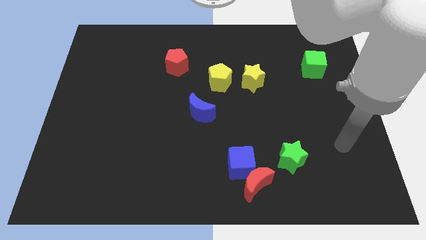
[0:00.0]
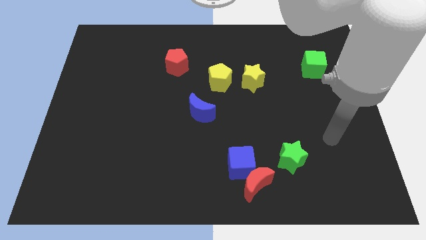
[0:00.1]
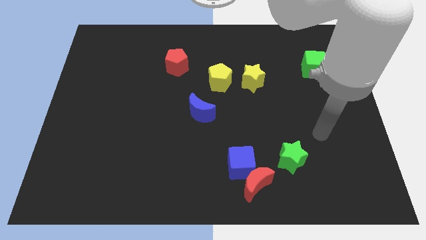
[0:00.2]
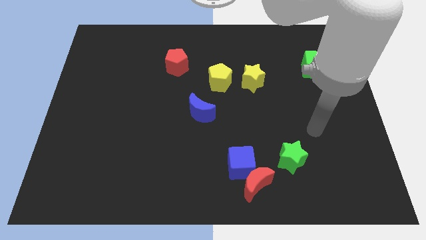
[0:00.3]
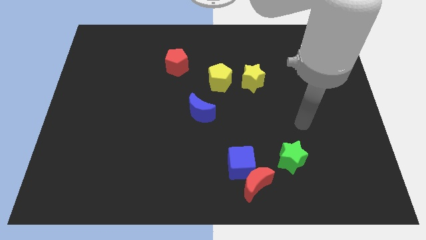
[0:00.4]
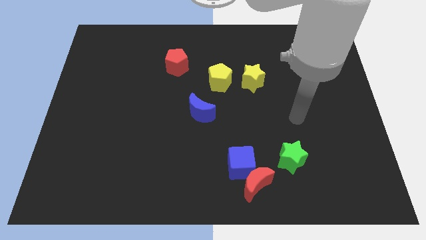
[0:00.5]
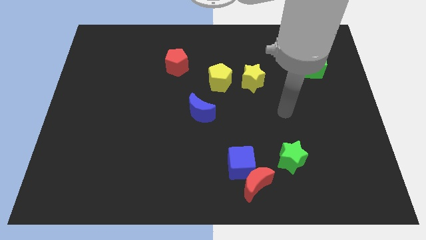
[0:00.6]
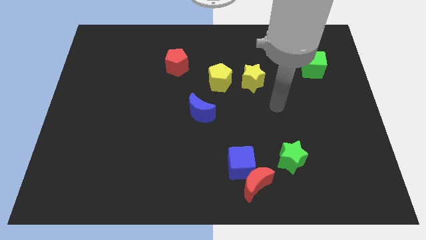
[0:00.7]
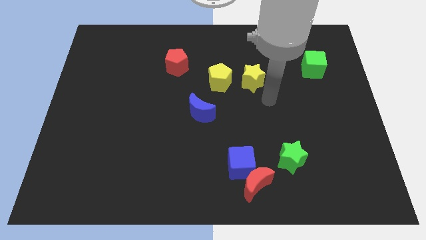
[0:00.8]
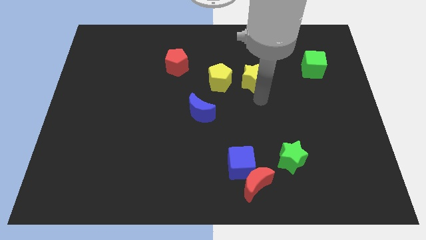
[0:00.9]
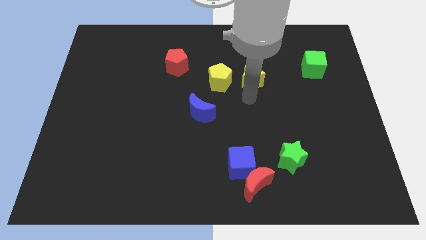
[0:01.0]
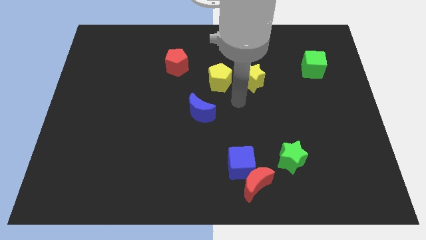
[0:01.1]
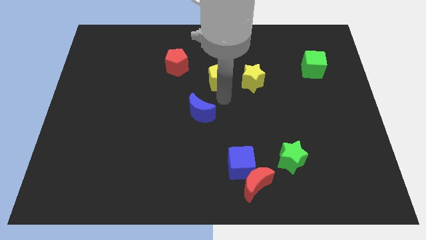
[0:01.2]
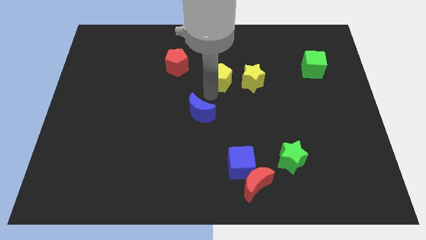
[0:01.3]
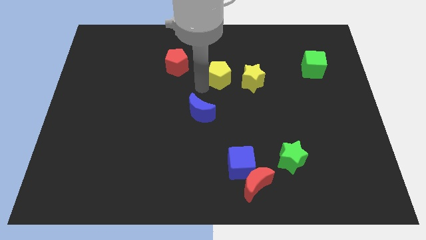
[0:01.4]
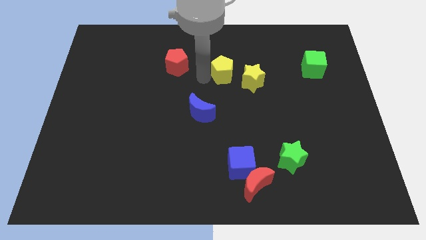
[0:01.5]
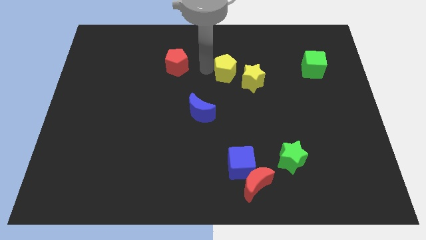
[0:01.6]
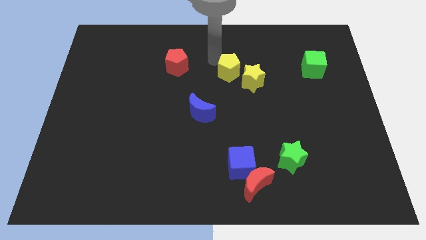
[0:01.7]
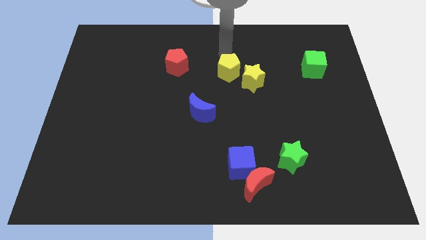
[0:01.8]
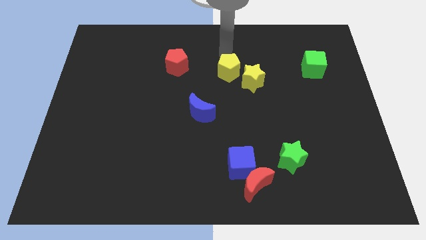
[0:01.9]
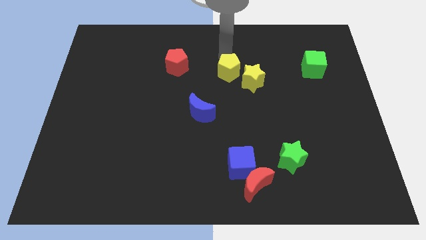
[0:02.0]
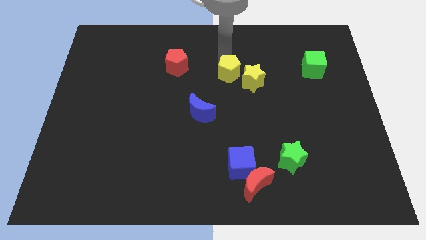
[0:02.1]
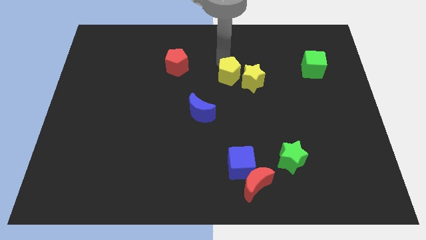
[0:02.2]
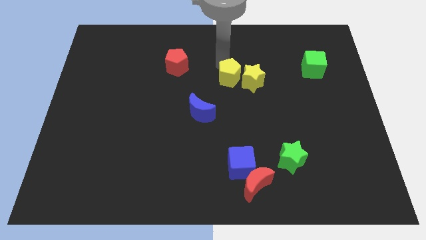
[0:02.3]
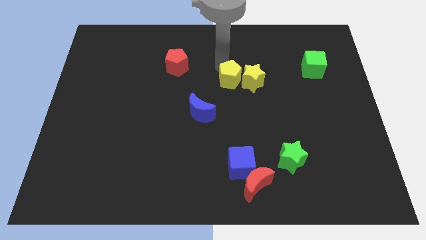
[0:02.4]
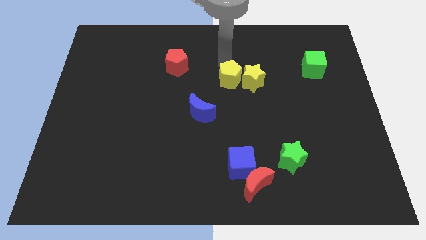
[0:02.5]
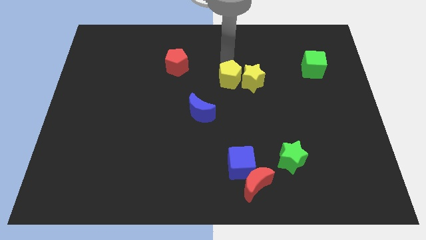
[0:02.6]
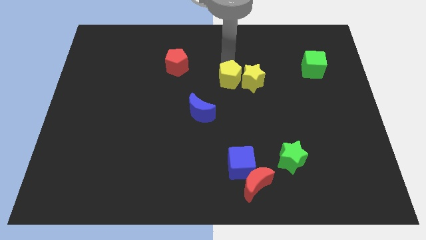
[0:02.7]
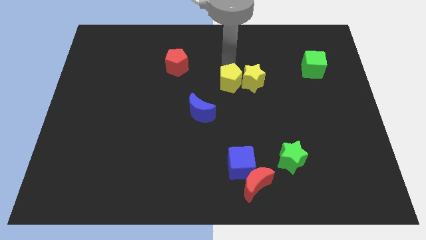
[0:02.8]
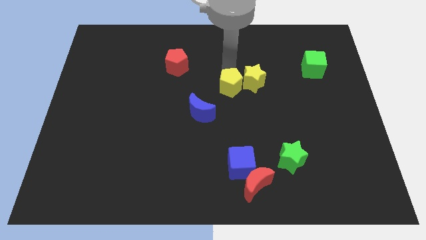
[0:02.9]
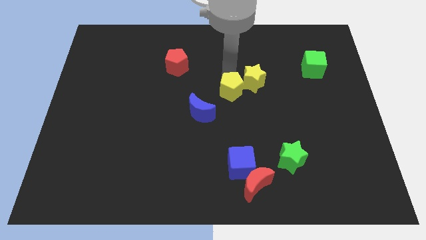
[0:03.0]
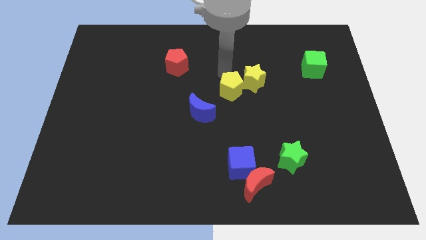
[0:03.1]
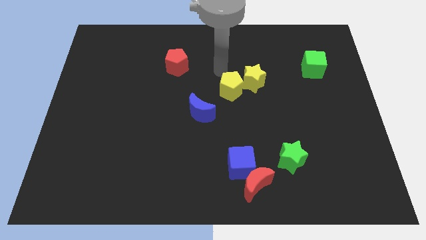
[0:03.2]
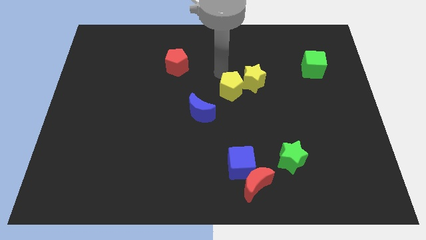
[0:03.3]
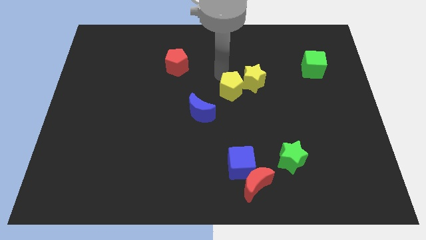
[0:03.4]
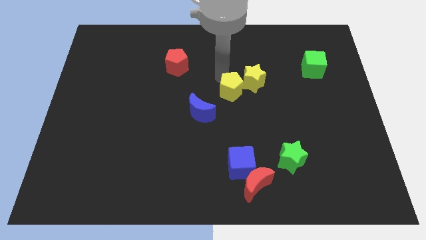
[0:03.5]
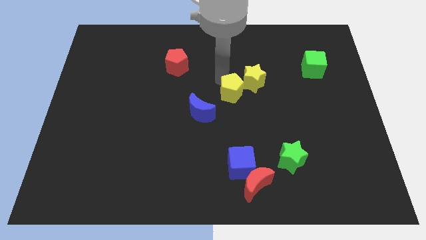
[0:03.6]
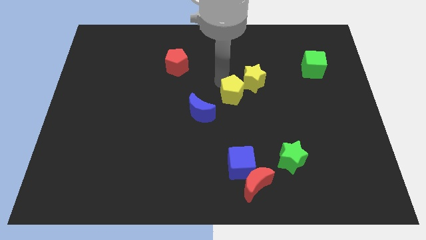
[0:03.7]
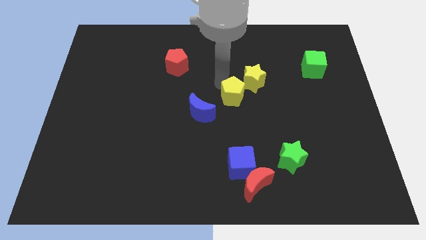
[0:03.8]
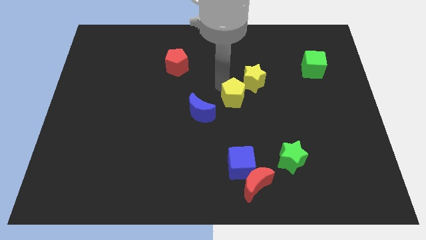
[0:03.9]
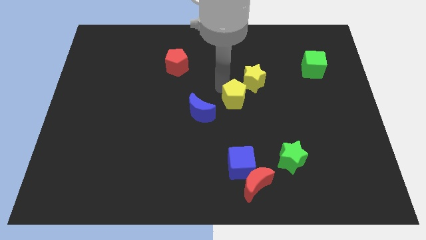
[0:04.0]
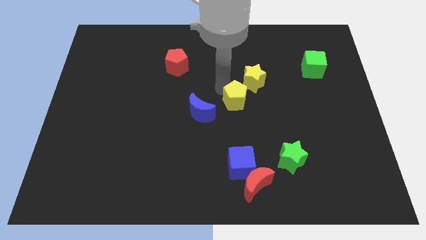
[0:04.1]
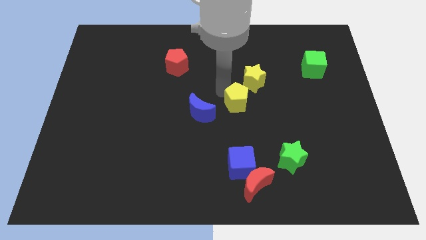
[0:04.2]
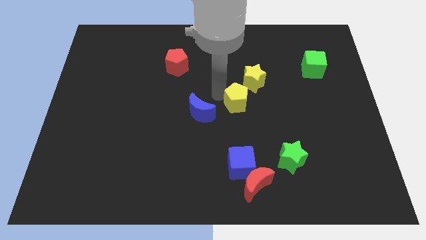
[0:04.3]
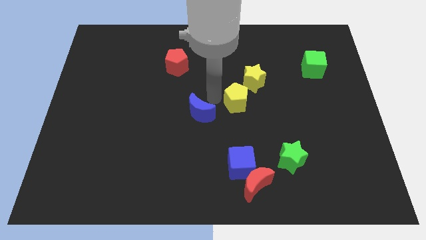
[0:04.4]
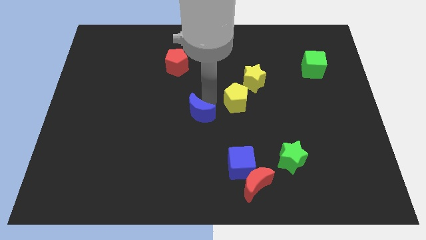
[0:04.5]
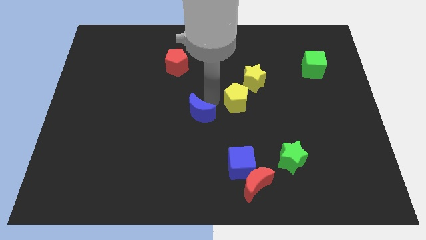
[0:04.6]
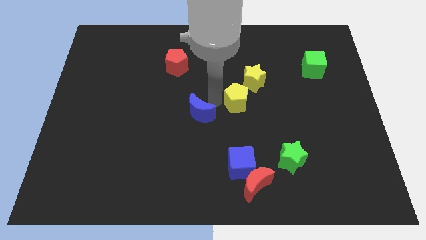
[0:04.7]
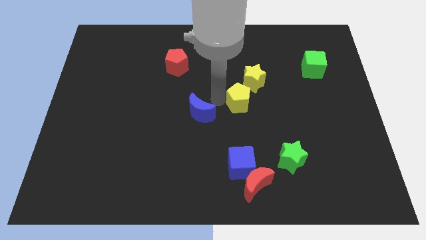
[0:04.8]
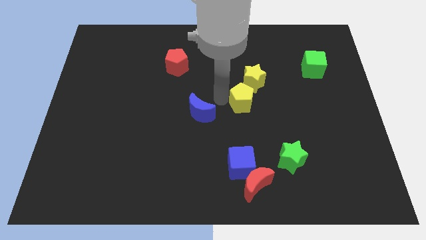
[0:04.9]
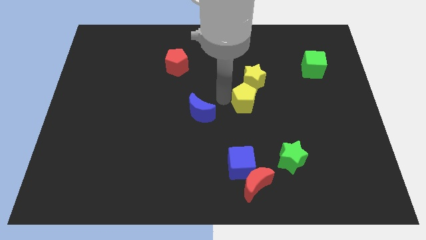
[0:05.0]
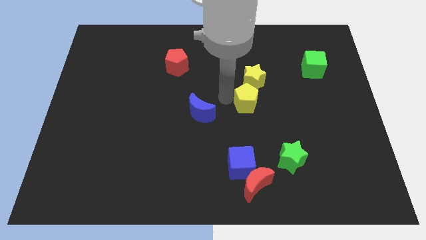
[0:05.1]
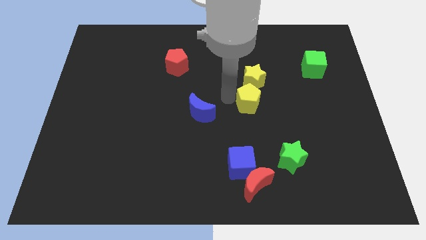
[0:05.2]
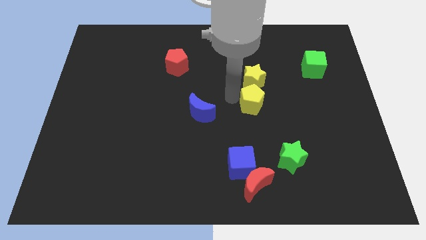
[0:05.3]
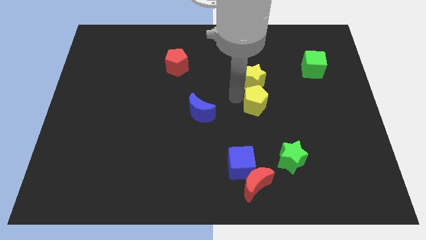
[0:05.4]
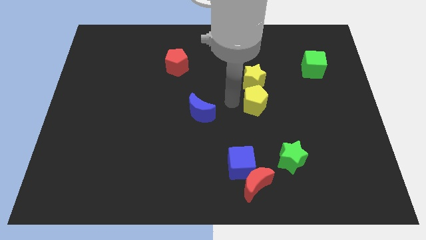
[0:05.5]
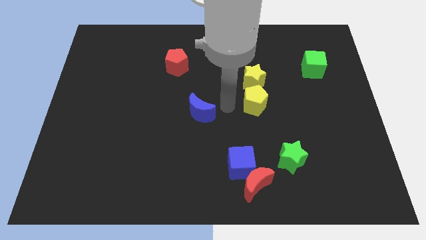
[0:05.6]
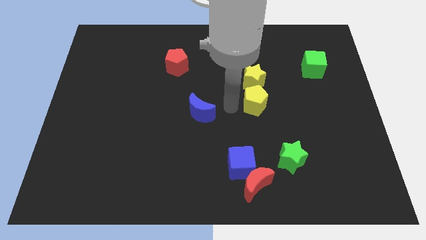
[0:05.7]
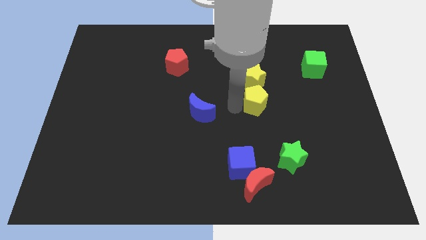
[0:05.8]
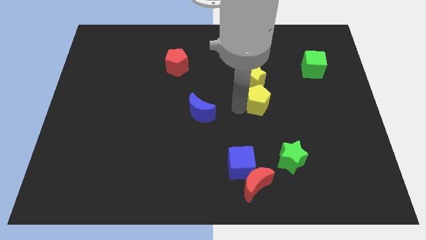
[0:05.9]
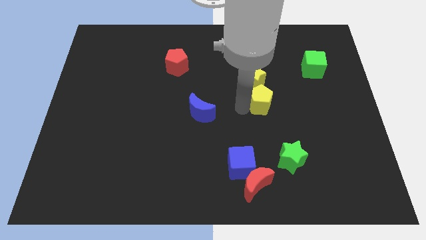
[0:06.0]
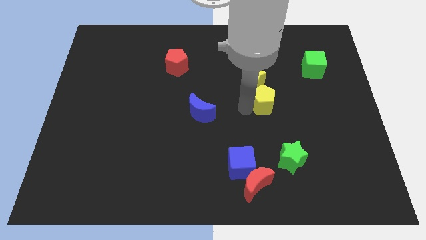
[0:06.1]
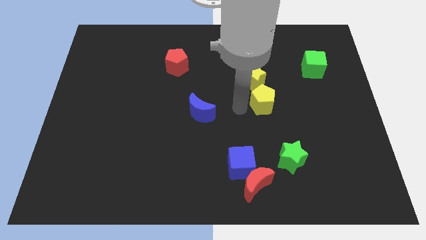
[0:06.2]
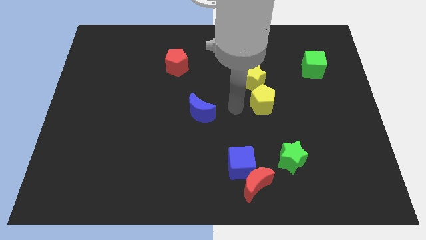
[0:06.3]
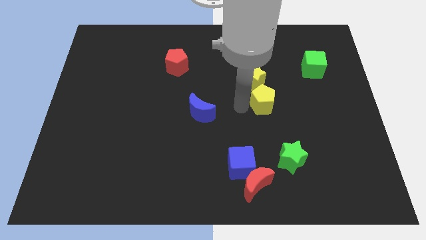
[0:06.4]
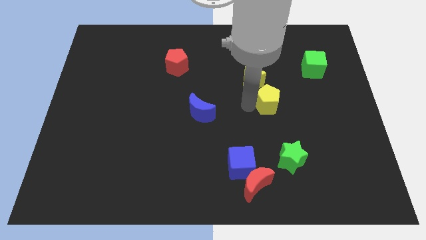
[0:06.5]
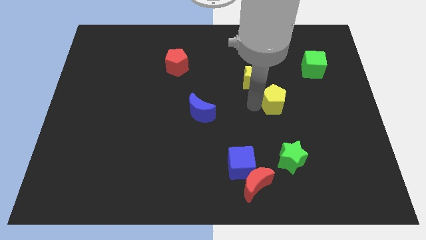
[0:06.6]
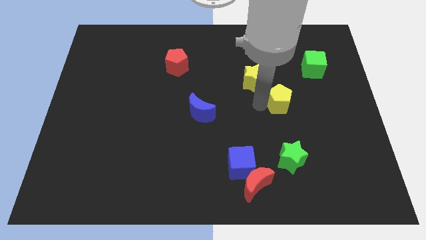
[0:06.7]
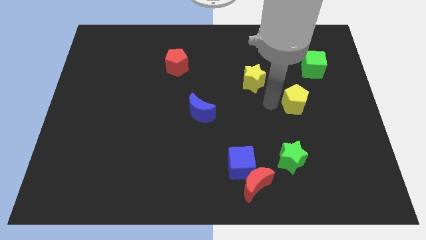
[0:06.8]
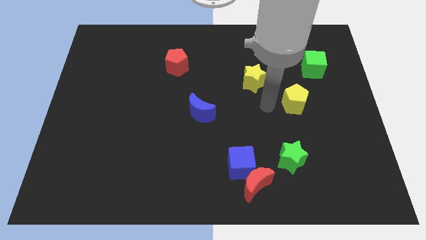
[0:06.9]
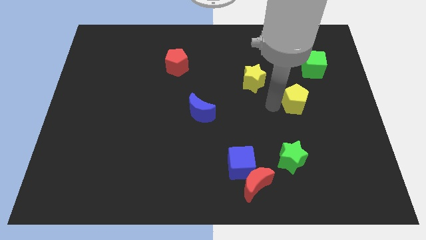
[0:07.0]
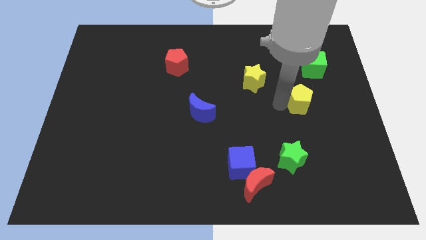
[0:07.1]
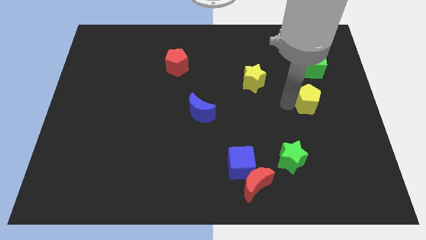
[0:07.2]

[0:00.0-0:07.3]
slide the yellow pentagon below the green cube
